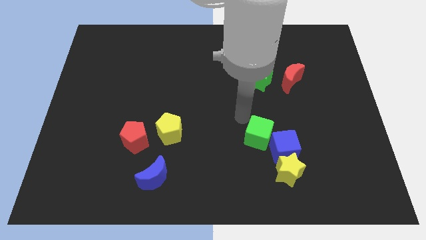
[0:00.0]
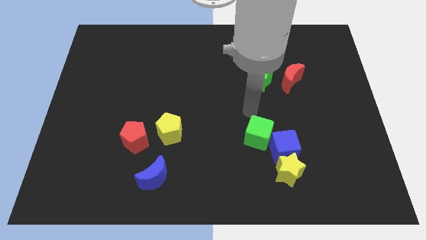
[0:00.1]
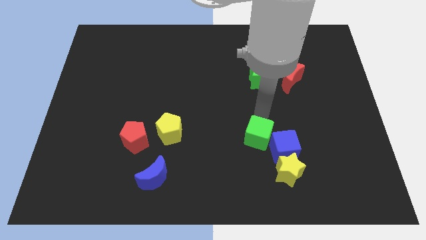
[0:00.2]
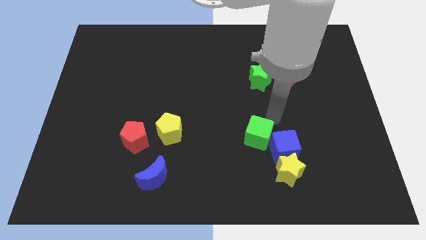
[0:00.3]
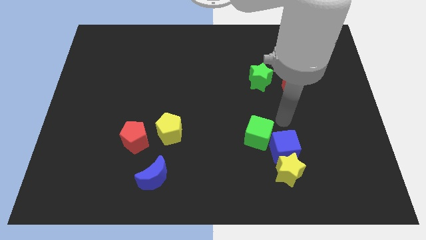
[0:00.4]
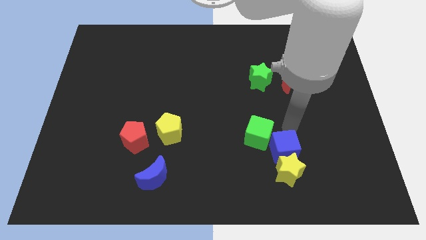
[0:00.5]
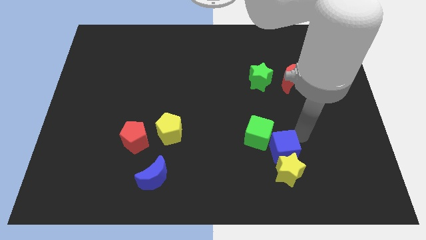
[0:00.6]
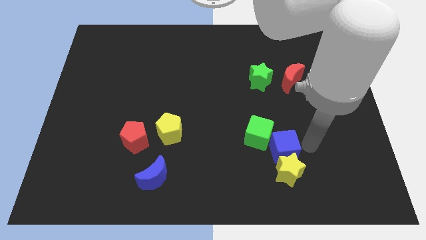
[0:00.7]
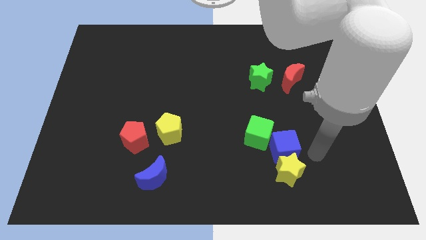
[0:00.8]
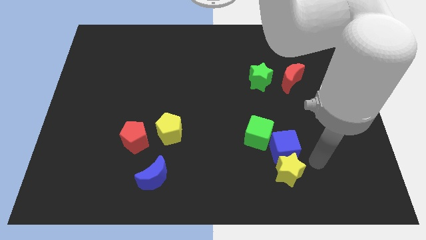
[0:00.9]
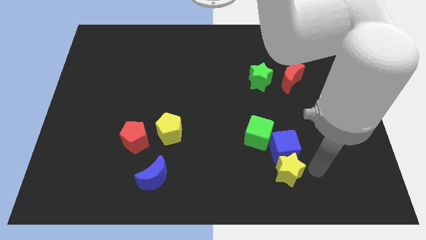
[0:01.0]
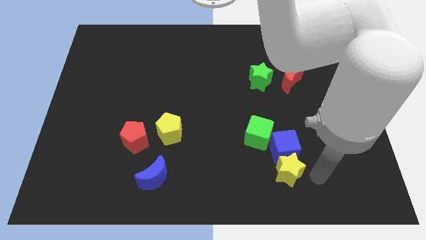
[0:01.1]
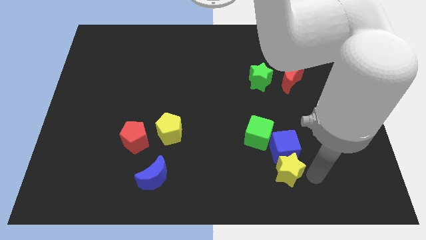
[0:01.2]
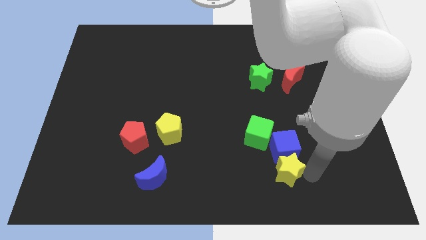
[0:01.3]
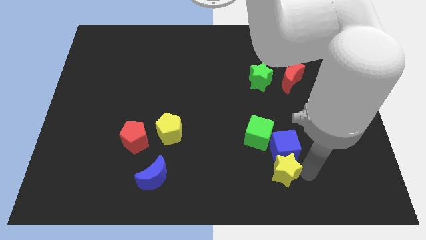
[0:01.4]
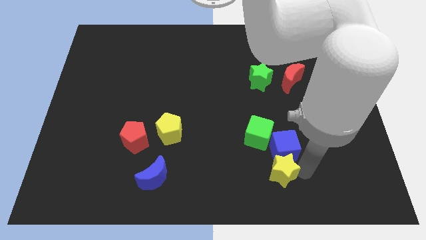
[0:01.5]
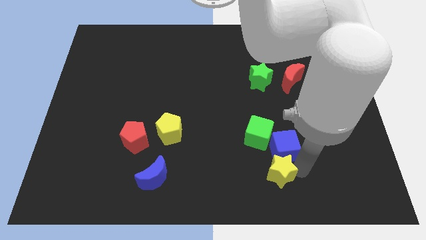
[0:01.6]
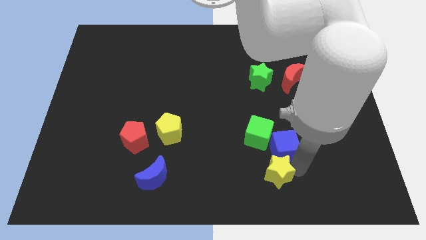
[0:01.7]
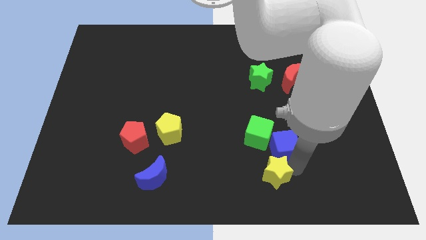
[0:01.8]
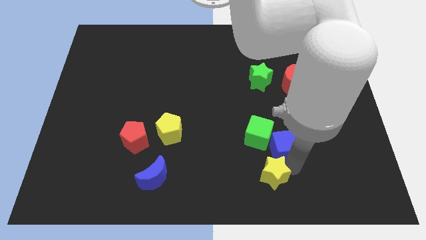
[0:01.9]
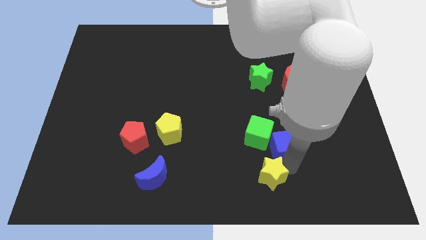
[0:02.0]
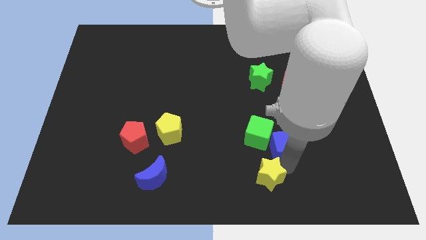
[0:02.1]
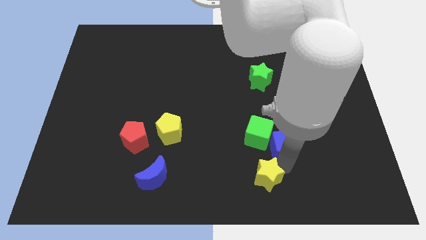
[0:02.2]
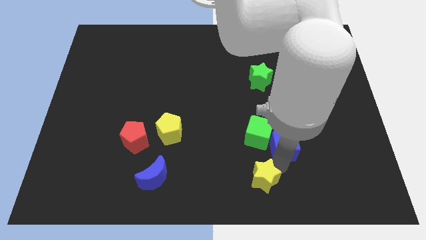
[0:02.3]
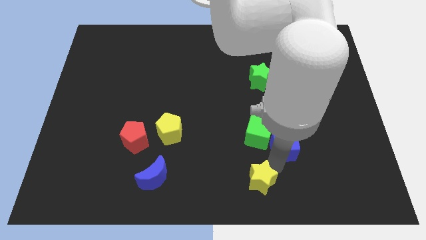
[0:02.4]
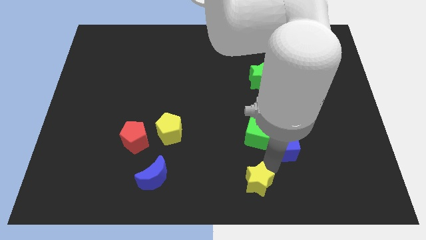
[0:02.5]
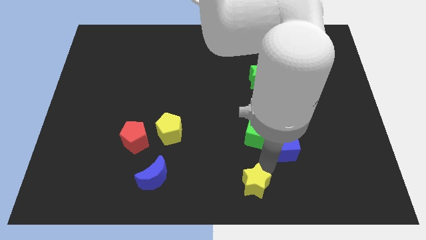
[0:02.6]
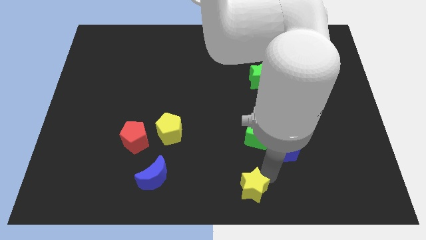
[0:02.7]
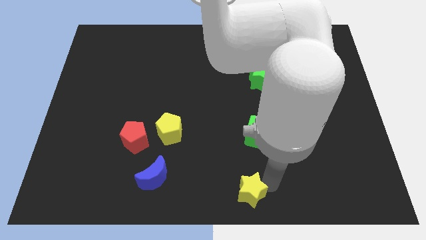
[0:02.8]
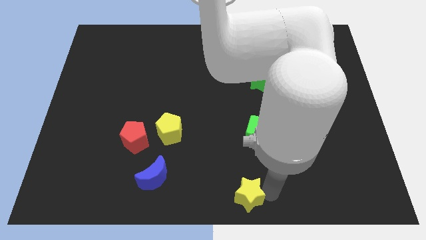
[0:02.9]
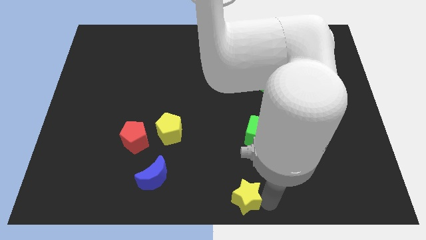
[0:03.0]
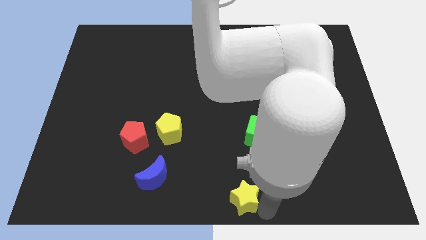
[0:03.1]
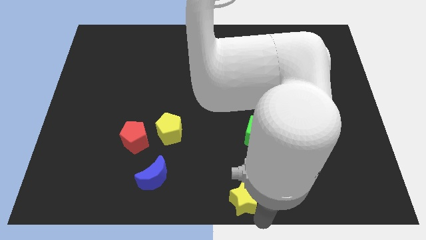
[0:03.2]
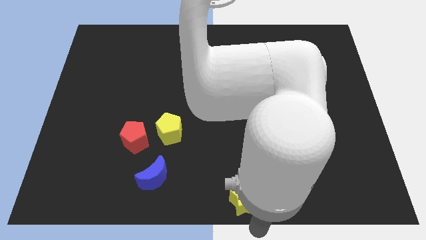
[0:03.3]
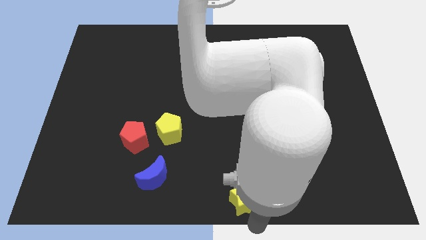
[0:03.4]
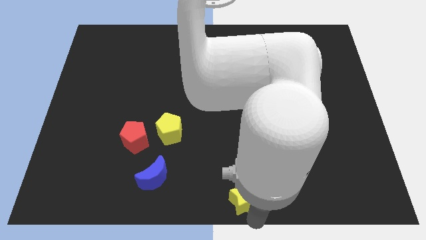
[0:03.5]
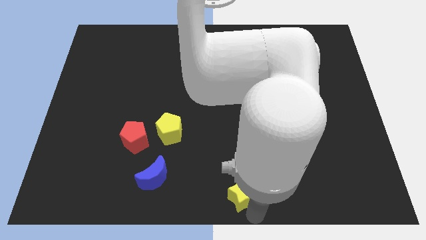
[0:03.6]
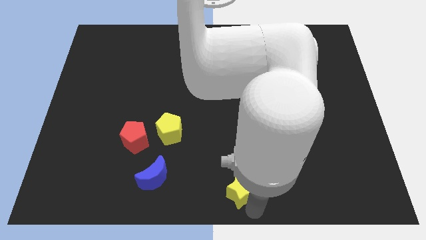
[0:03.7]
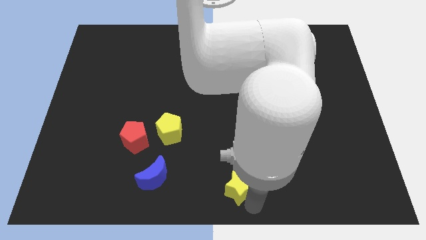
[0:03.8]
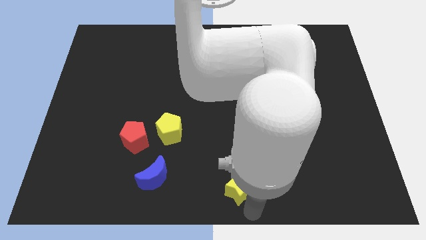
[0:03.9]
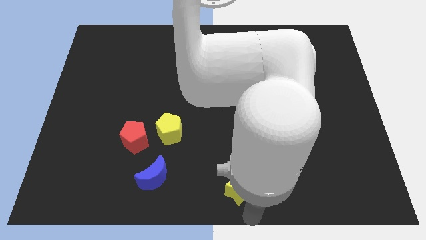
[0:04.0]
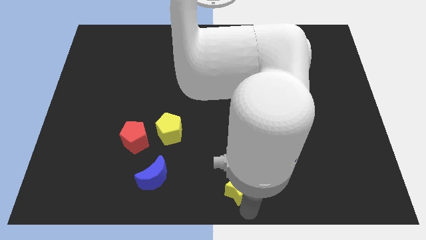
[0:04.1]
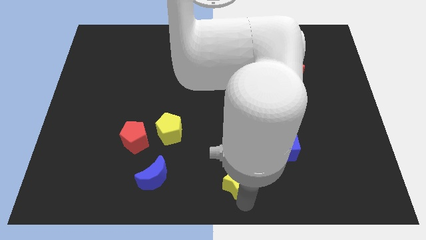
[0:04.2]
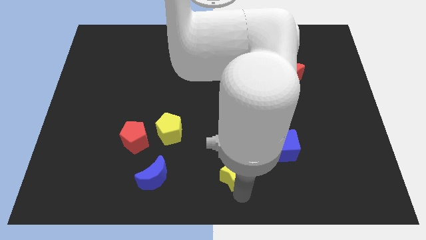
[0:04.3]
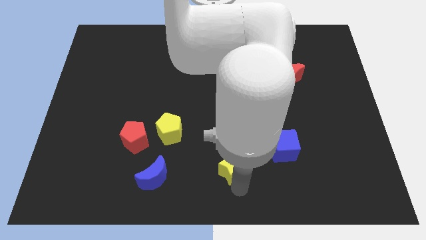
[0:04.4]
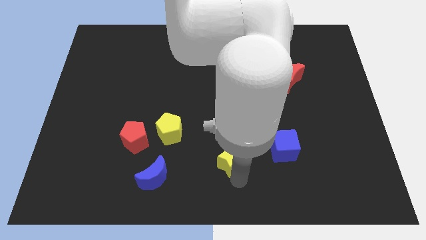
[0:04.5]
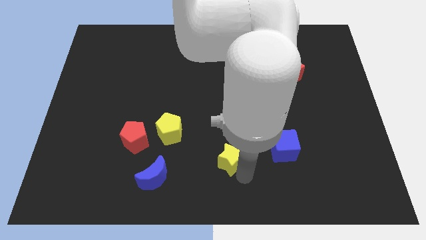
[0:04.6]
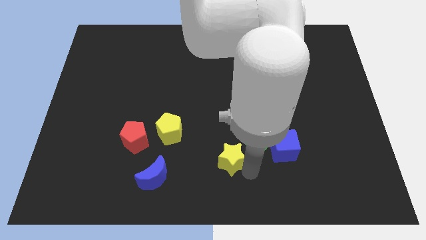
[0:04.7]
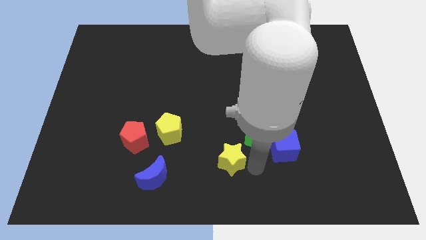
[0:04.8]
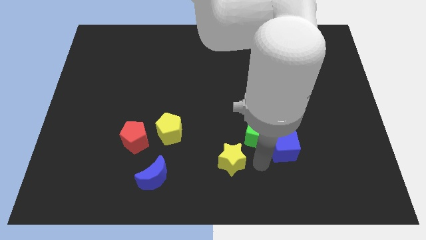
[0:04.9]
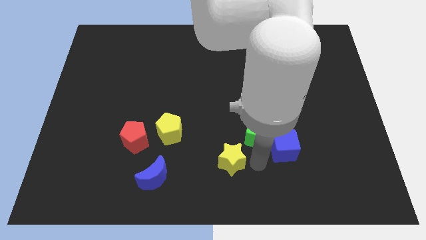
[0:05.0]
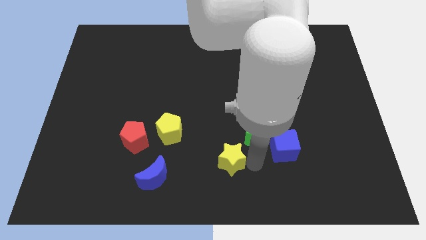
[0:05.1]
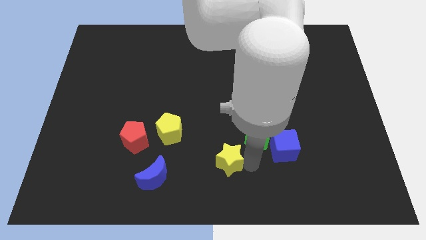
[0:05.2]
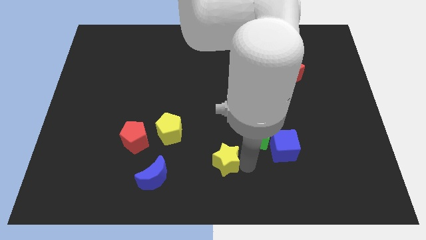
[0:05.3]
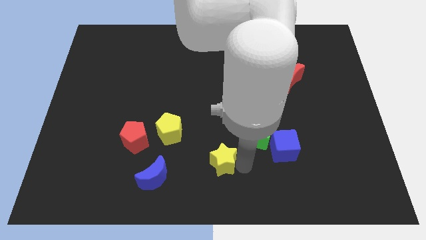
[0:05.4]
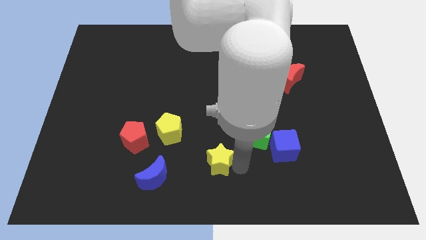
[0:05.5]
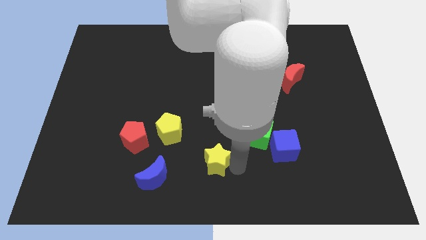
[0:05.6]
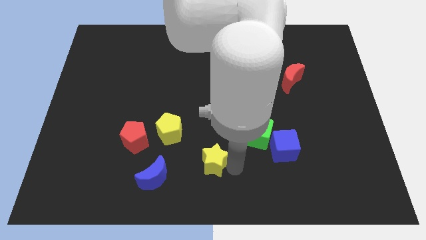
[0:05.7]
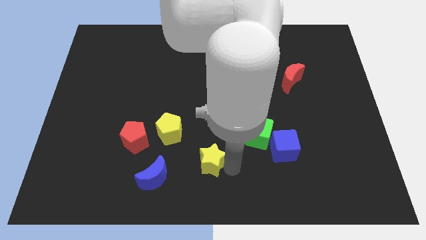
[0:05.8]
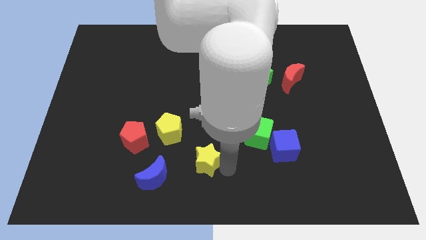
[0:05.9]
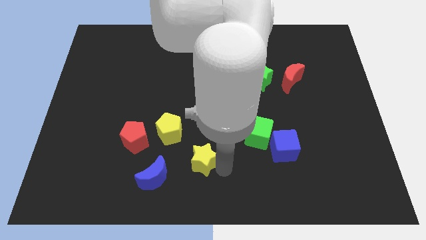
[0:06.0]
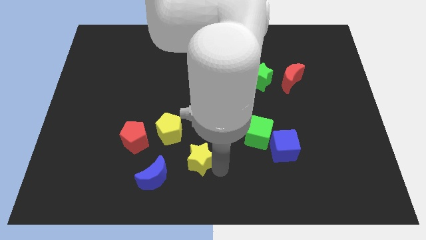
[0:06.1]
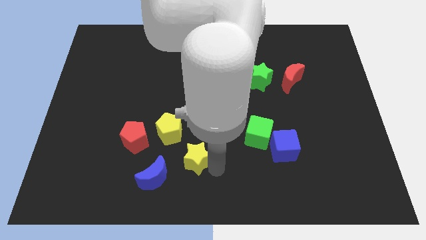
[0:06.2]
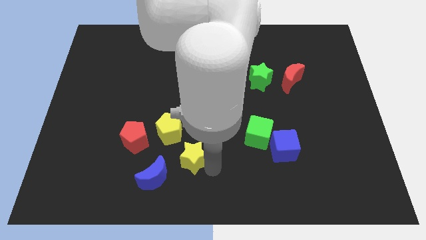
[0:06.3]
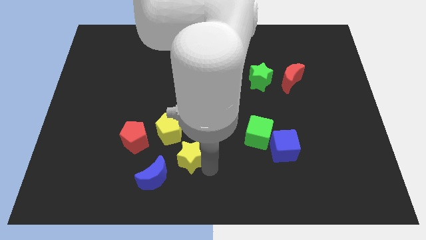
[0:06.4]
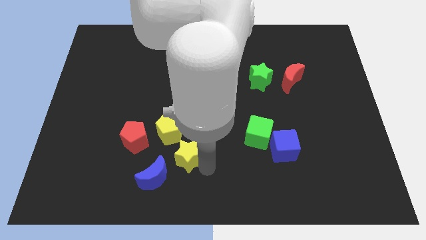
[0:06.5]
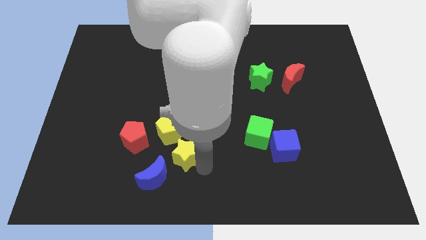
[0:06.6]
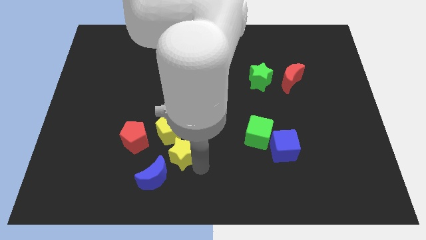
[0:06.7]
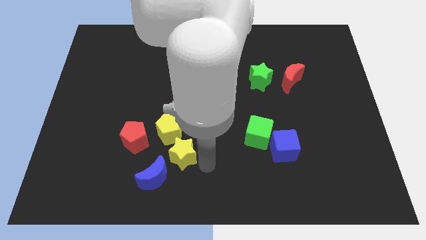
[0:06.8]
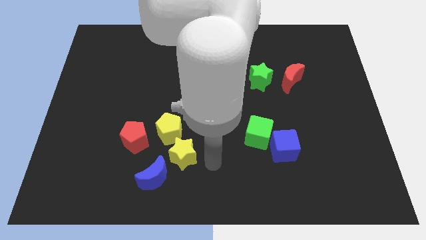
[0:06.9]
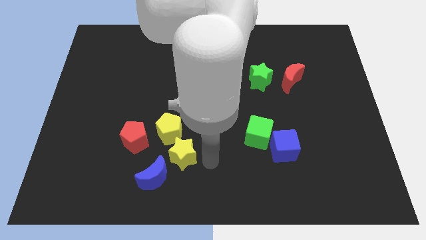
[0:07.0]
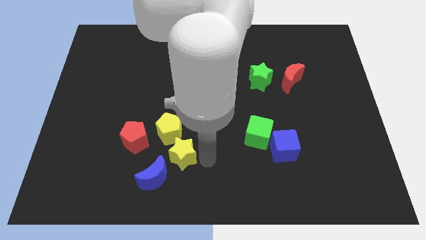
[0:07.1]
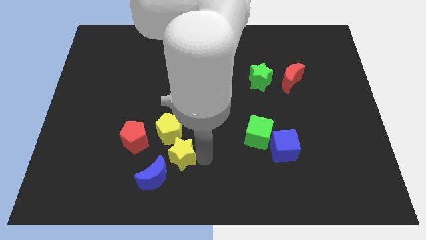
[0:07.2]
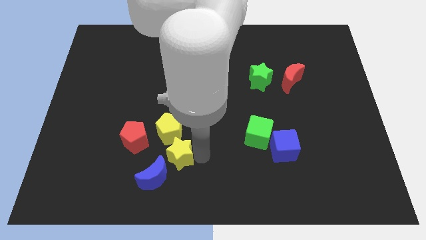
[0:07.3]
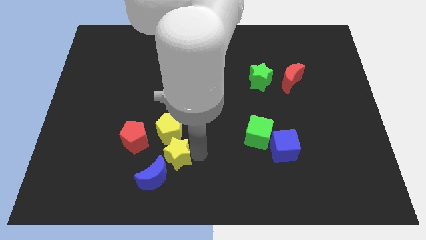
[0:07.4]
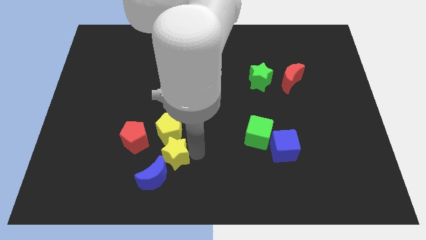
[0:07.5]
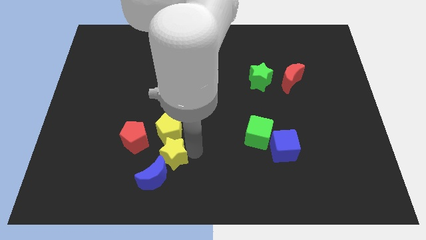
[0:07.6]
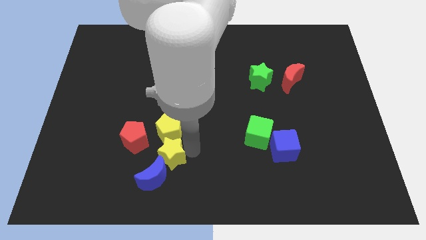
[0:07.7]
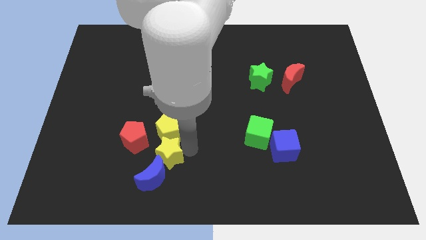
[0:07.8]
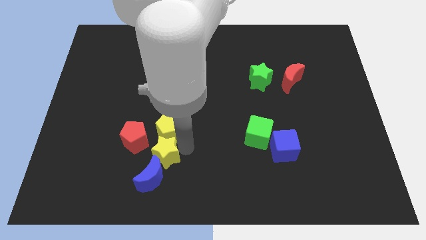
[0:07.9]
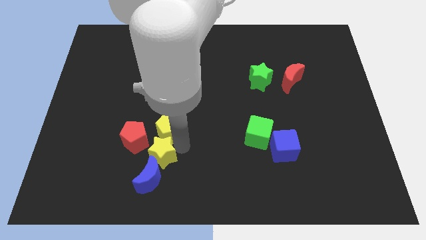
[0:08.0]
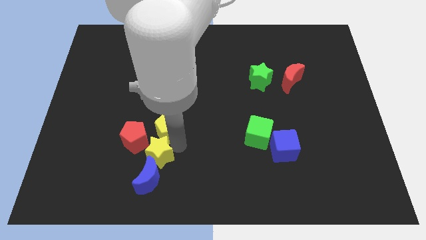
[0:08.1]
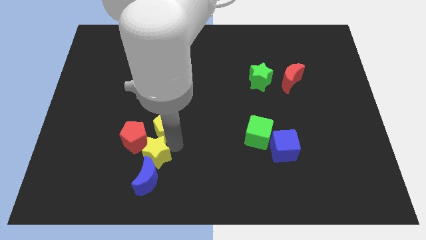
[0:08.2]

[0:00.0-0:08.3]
put the yellow star close to the red pentagon
